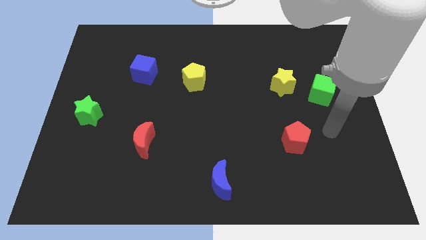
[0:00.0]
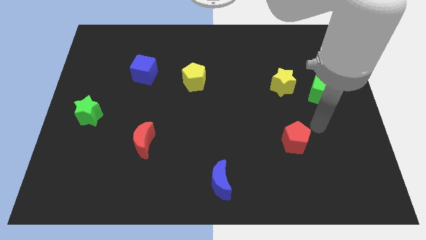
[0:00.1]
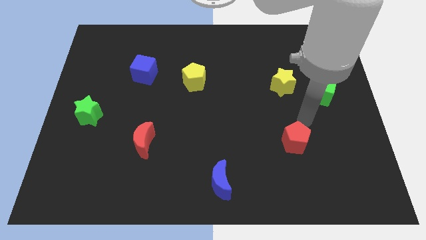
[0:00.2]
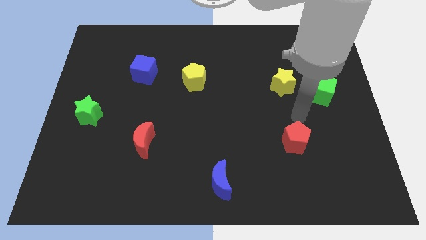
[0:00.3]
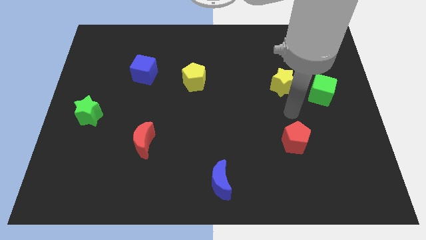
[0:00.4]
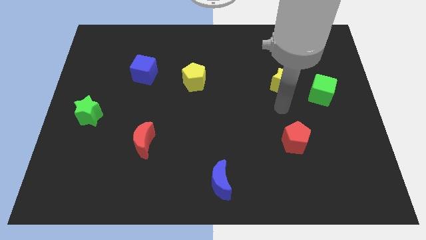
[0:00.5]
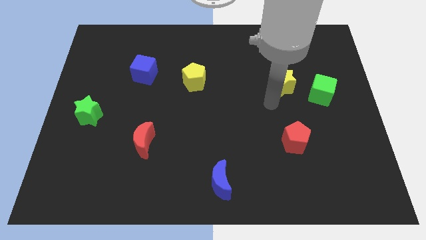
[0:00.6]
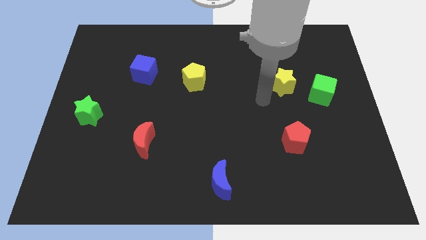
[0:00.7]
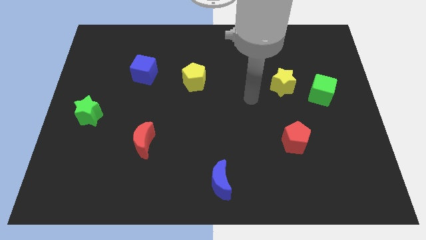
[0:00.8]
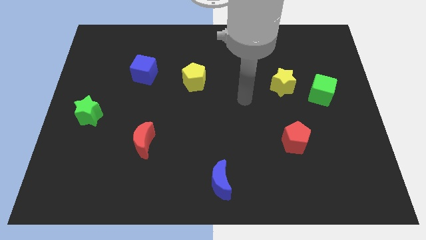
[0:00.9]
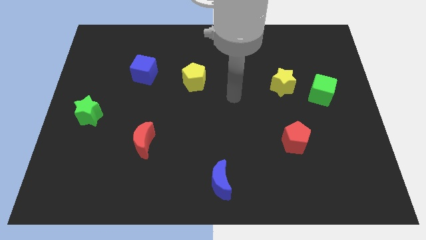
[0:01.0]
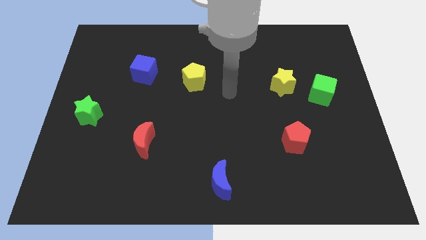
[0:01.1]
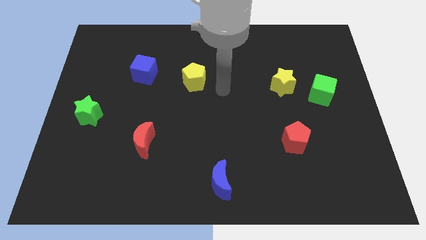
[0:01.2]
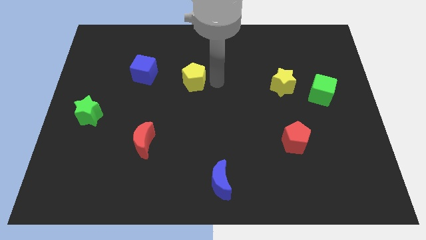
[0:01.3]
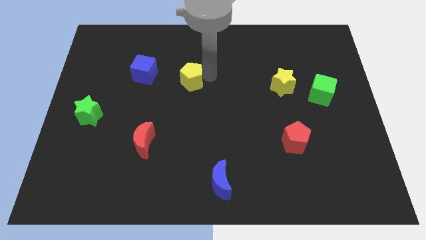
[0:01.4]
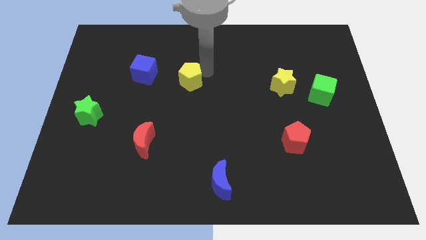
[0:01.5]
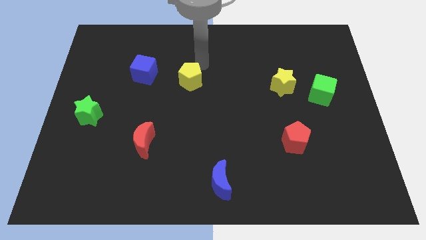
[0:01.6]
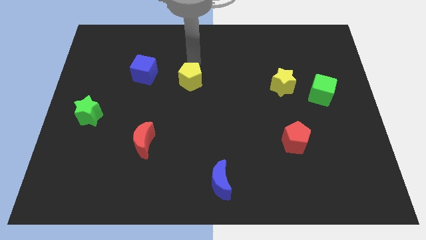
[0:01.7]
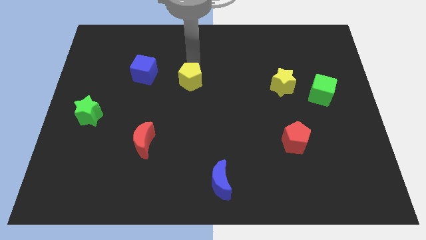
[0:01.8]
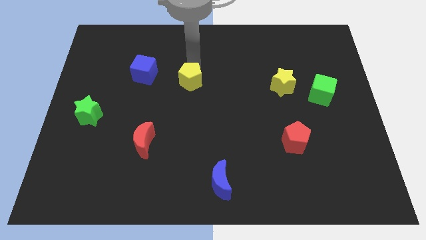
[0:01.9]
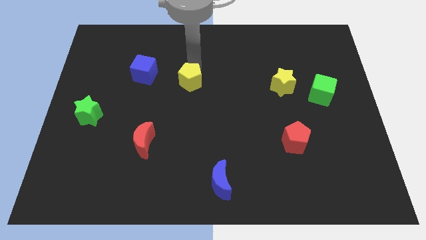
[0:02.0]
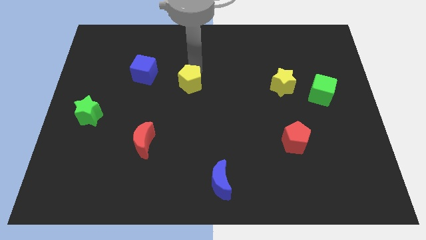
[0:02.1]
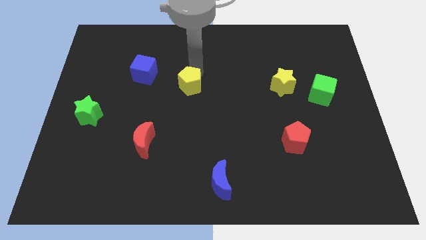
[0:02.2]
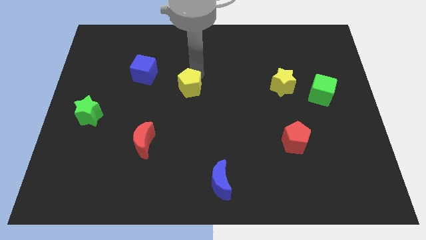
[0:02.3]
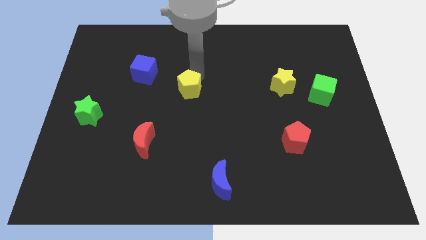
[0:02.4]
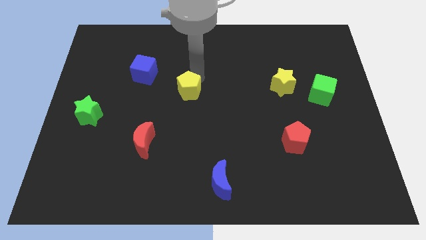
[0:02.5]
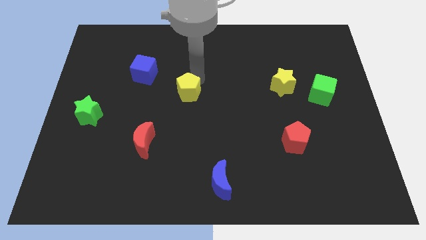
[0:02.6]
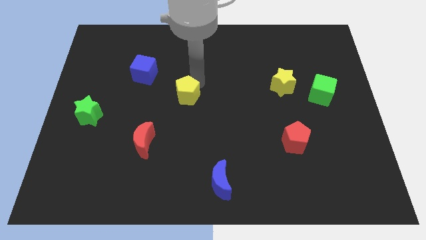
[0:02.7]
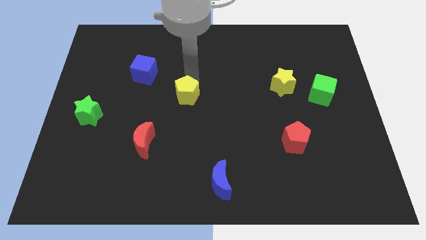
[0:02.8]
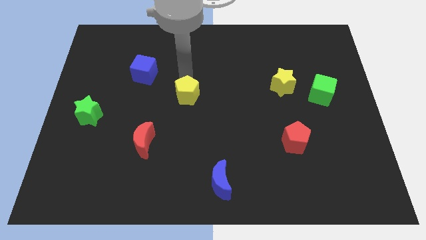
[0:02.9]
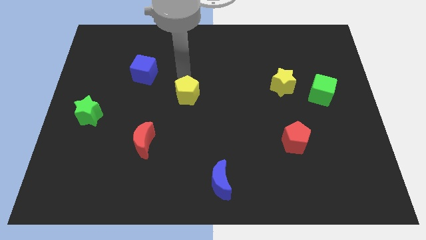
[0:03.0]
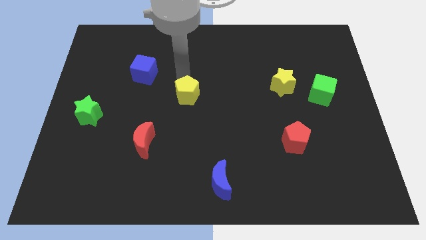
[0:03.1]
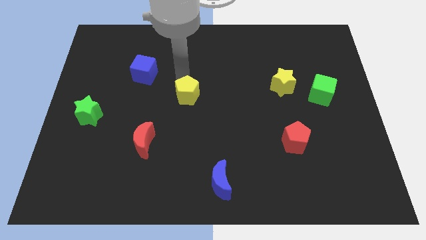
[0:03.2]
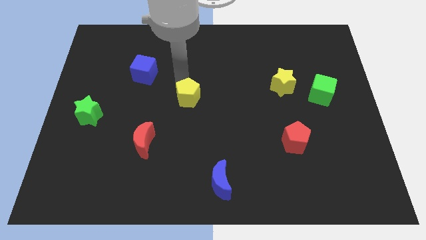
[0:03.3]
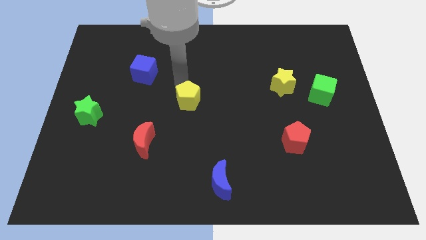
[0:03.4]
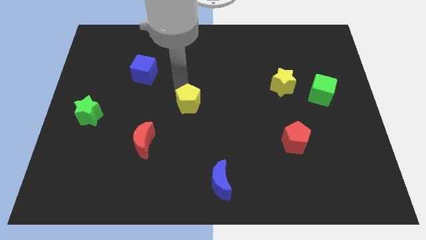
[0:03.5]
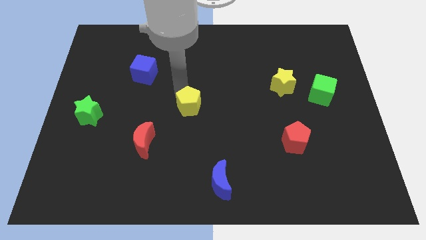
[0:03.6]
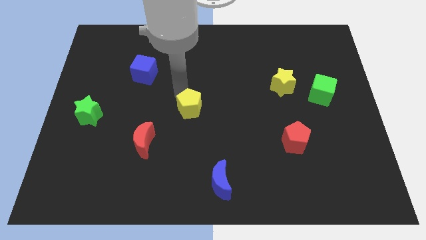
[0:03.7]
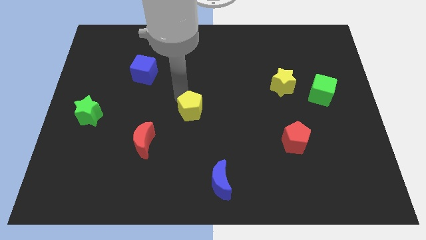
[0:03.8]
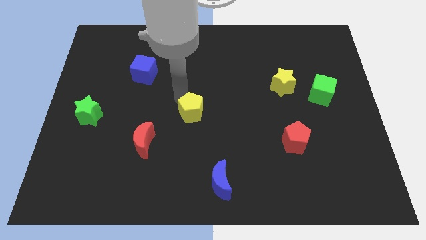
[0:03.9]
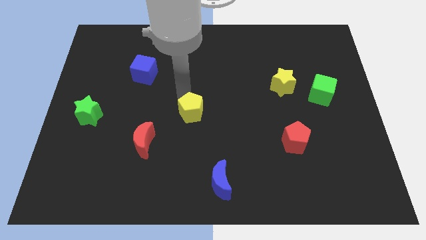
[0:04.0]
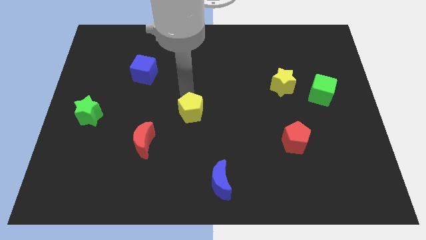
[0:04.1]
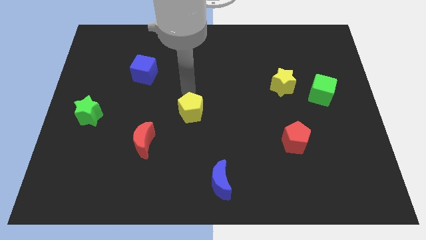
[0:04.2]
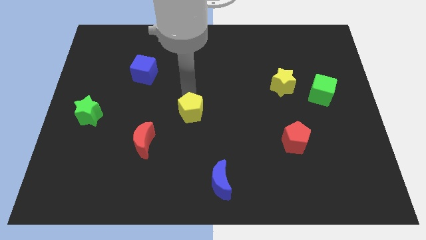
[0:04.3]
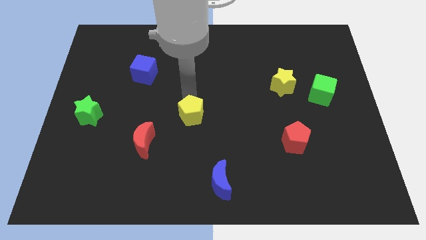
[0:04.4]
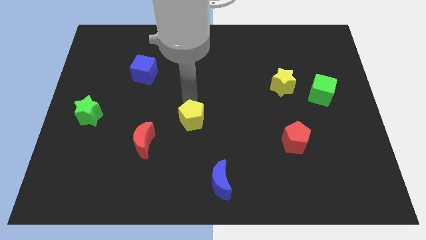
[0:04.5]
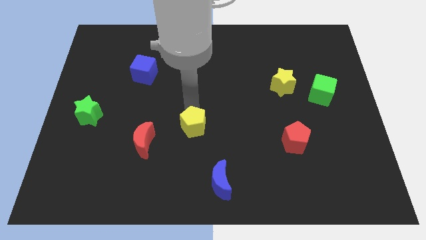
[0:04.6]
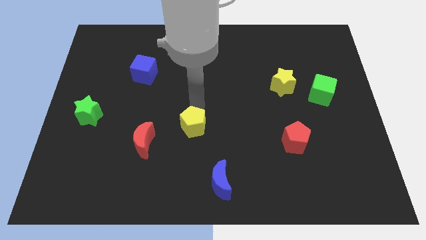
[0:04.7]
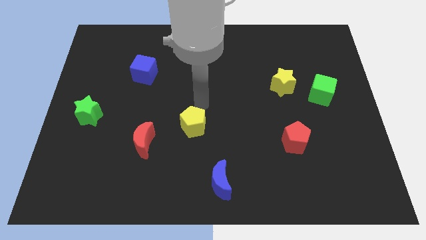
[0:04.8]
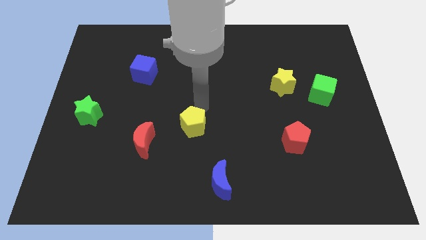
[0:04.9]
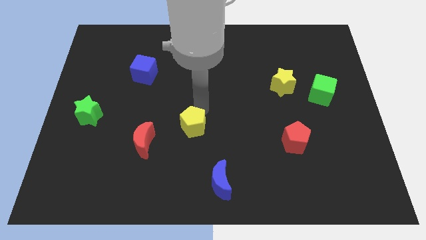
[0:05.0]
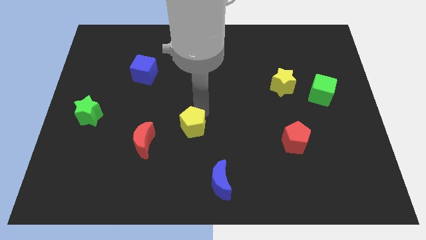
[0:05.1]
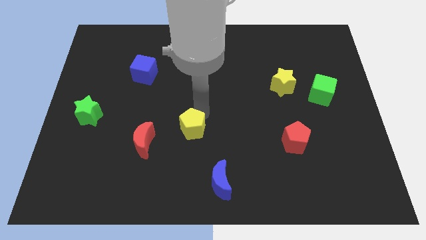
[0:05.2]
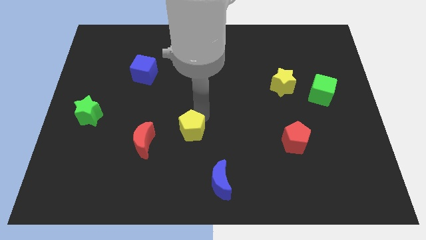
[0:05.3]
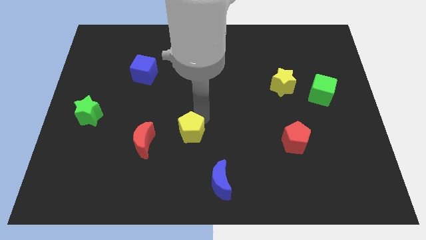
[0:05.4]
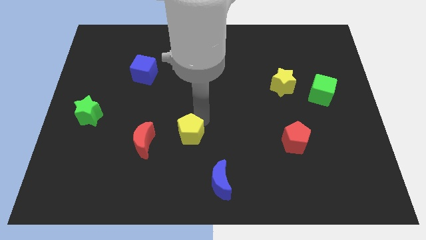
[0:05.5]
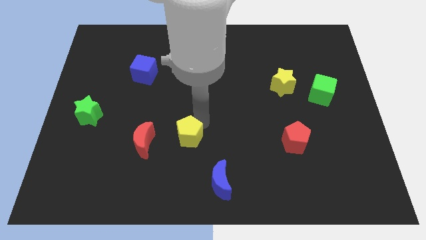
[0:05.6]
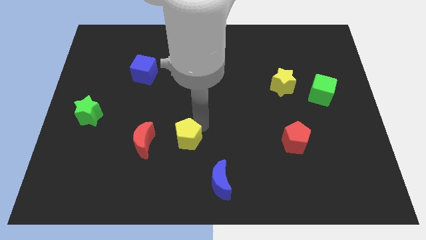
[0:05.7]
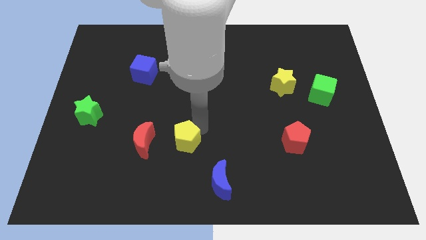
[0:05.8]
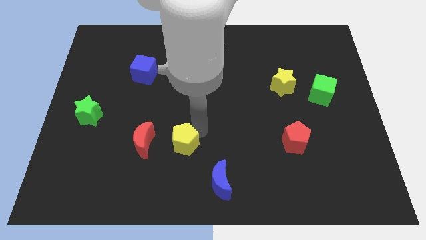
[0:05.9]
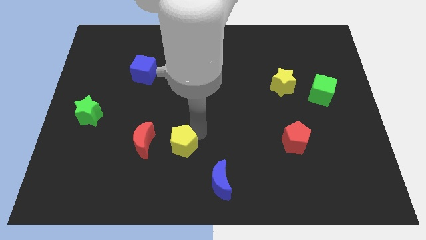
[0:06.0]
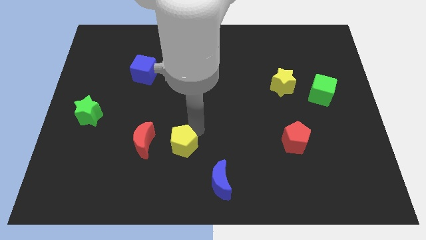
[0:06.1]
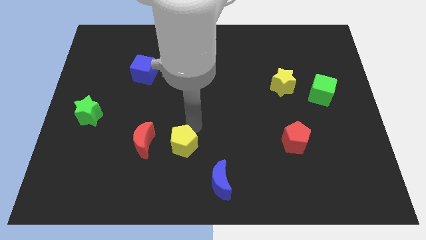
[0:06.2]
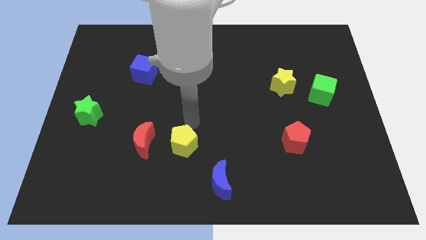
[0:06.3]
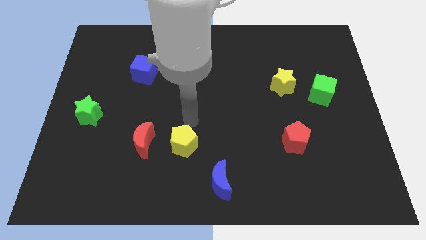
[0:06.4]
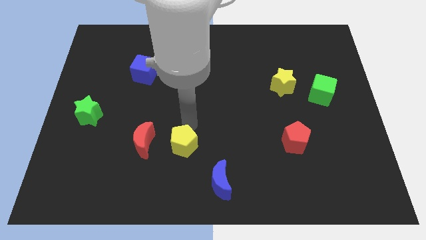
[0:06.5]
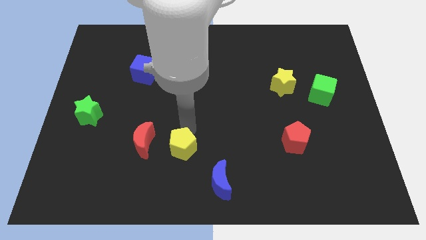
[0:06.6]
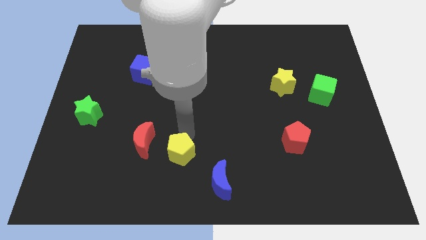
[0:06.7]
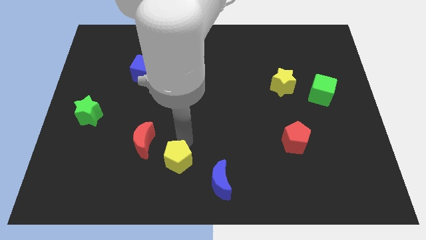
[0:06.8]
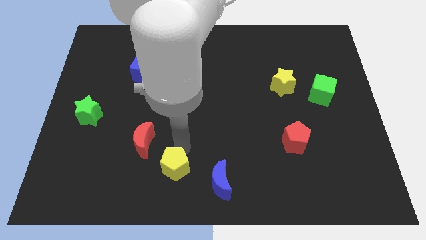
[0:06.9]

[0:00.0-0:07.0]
push the yellow pentagon to the left side of the blue moon
